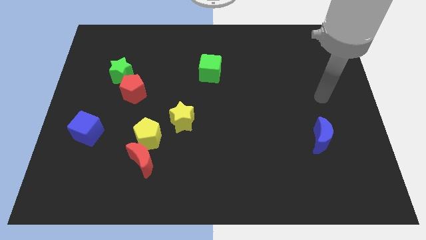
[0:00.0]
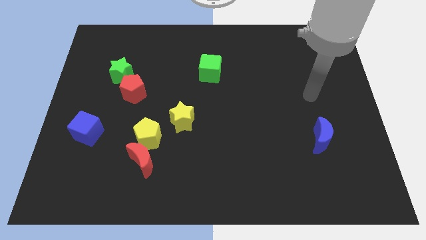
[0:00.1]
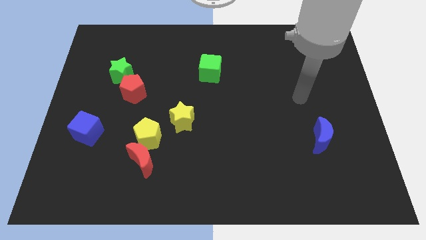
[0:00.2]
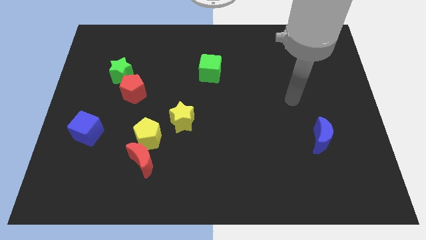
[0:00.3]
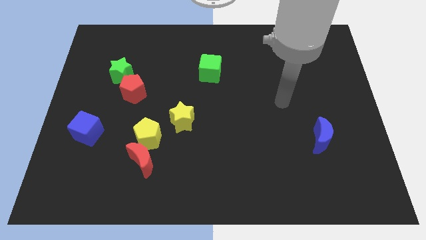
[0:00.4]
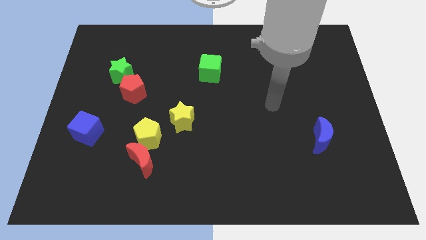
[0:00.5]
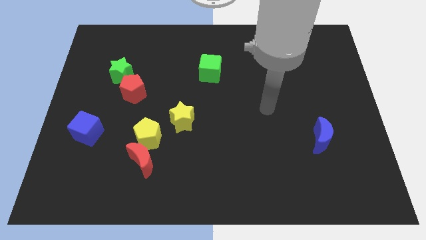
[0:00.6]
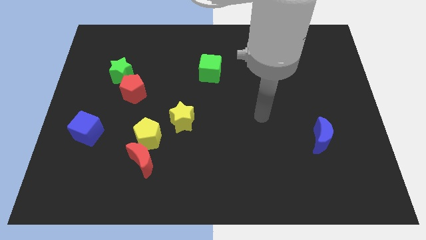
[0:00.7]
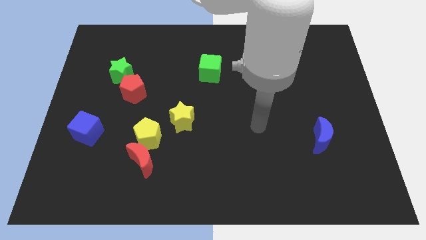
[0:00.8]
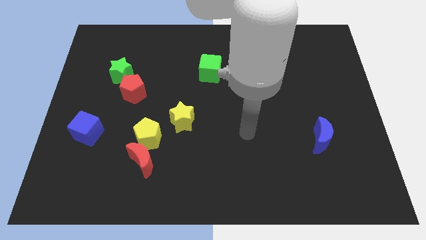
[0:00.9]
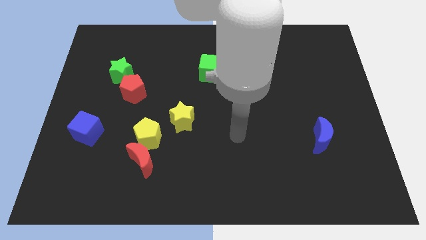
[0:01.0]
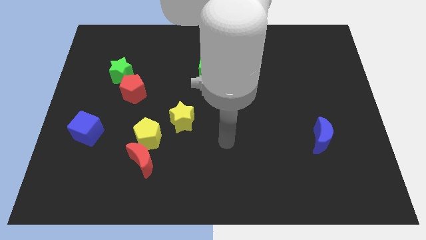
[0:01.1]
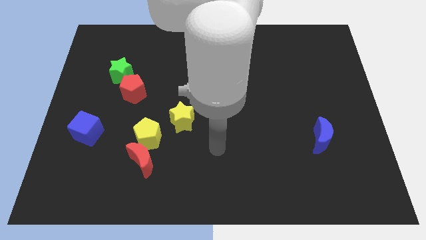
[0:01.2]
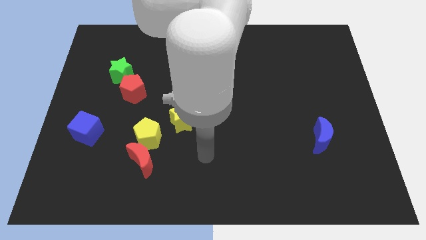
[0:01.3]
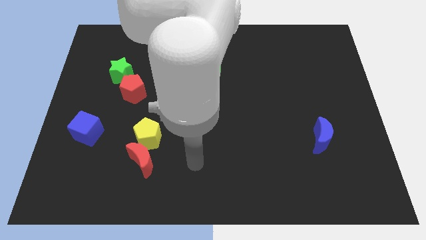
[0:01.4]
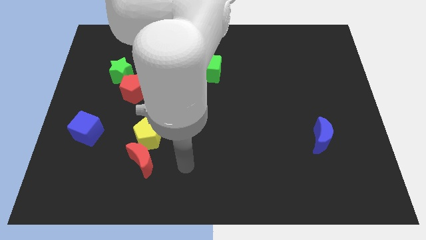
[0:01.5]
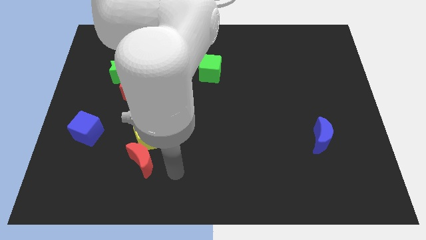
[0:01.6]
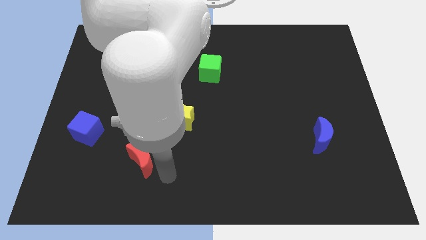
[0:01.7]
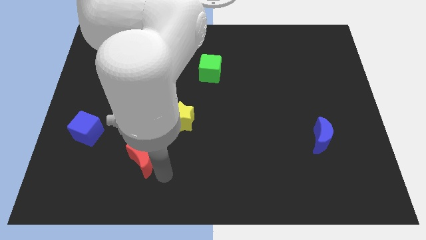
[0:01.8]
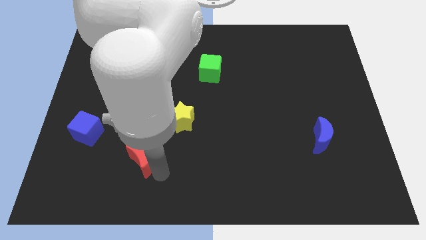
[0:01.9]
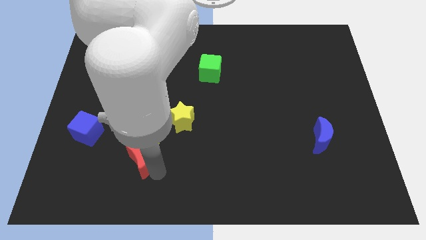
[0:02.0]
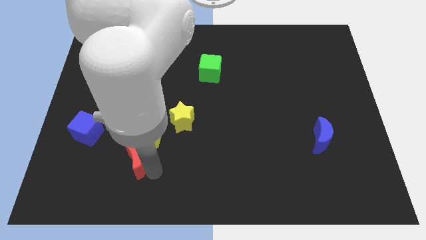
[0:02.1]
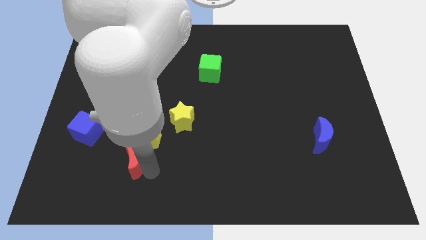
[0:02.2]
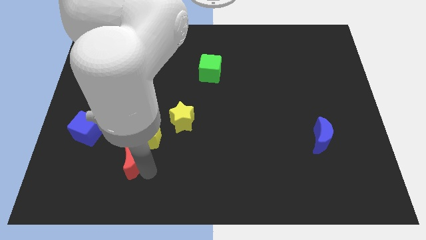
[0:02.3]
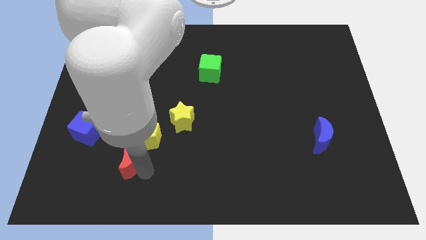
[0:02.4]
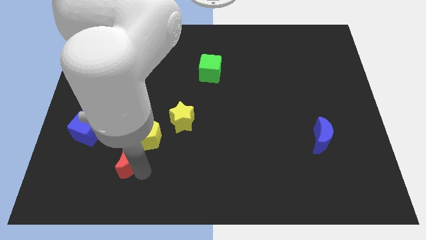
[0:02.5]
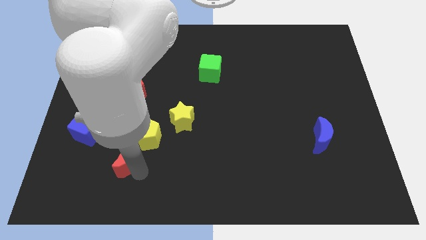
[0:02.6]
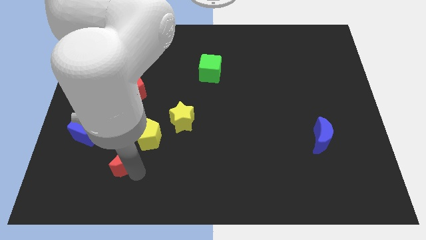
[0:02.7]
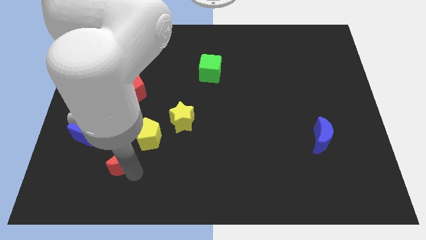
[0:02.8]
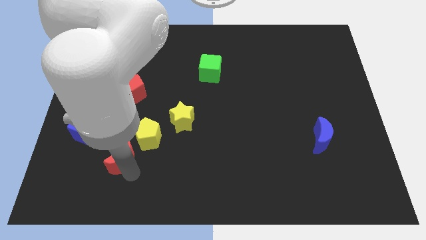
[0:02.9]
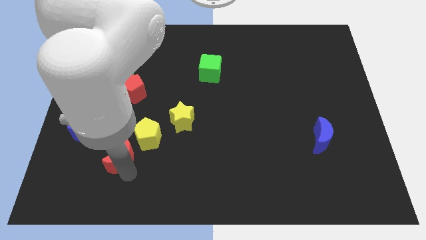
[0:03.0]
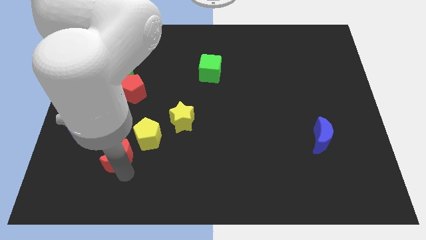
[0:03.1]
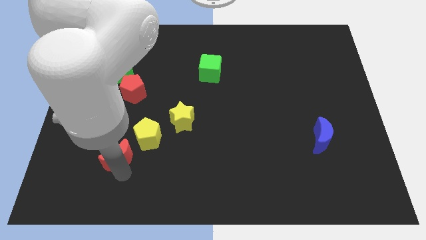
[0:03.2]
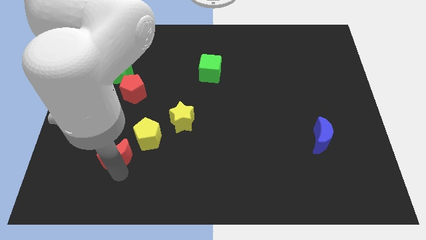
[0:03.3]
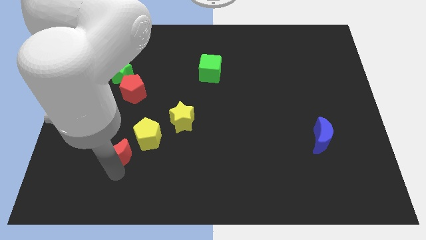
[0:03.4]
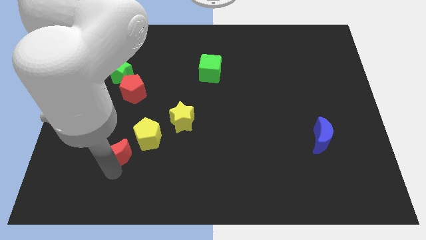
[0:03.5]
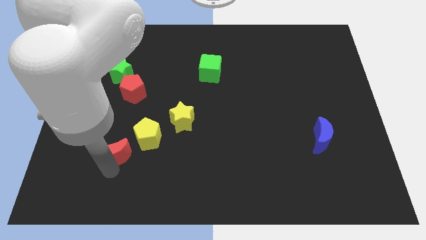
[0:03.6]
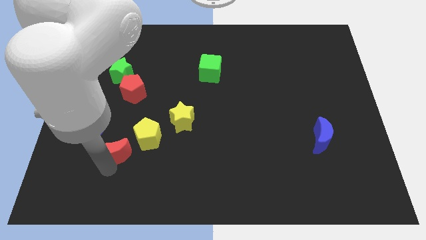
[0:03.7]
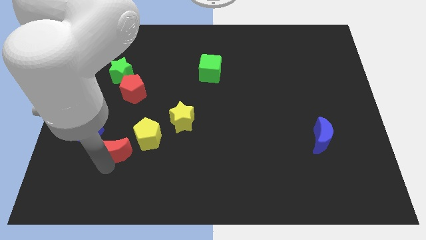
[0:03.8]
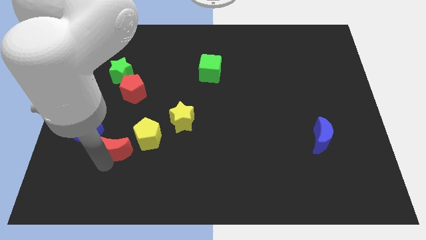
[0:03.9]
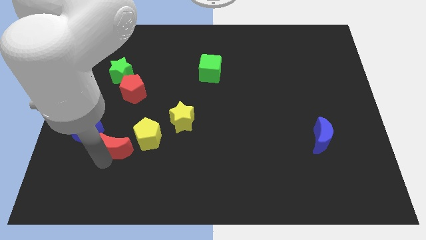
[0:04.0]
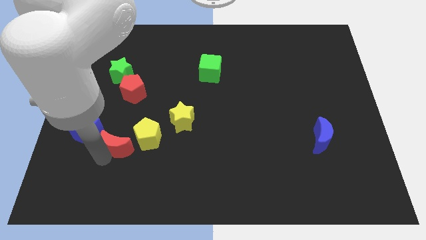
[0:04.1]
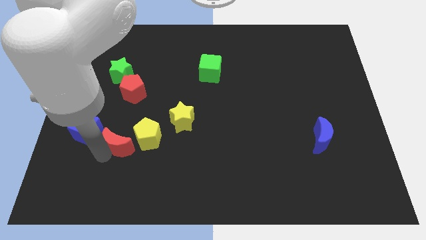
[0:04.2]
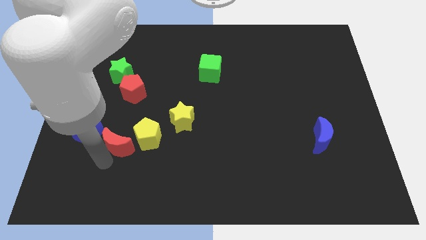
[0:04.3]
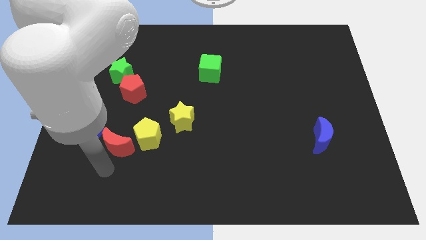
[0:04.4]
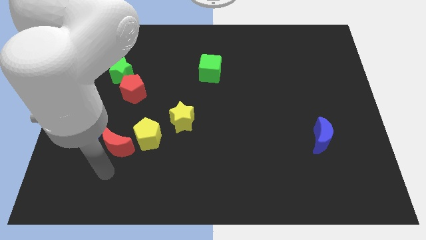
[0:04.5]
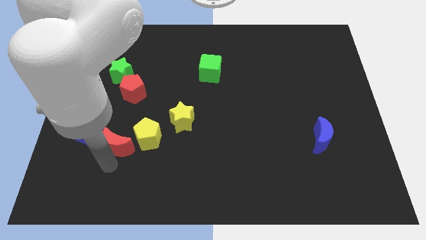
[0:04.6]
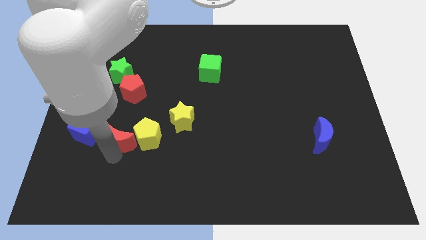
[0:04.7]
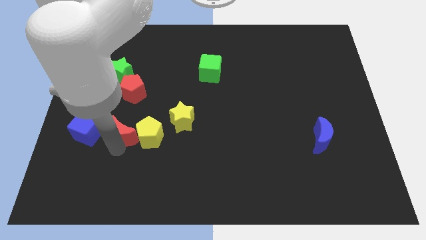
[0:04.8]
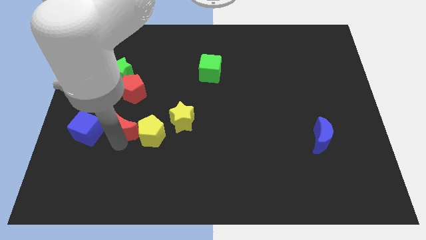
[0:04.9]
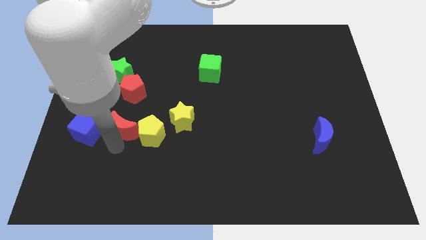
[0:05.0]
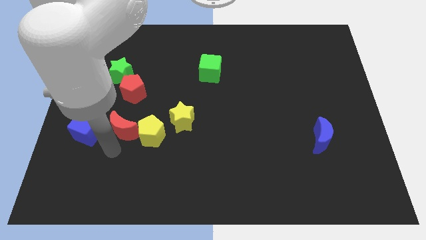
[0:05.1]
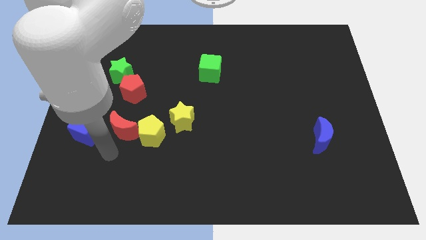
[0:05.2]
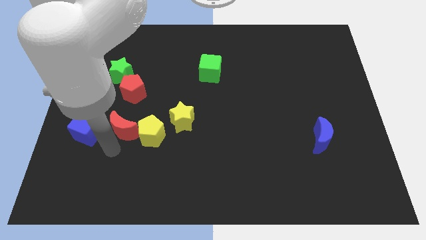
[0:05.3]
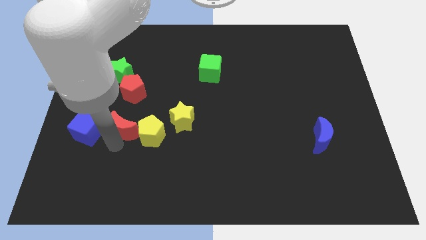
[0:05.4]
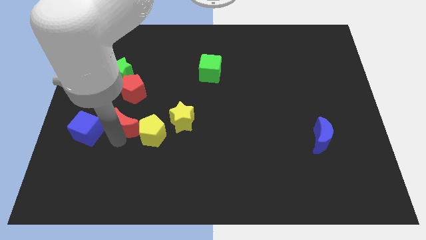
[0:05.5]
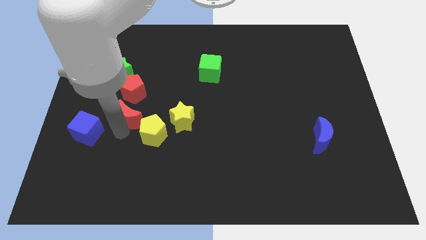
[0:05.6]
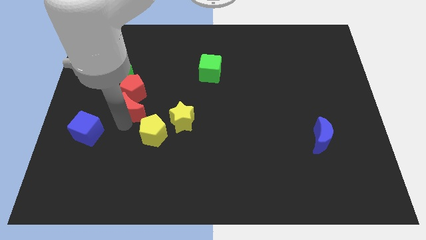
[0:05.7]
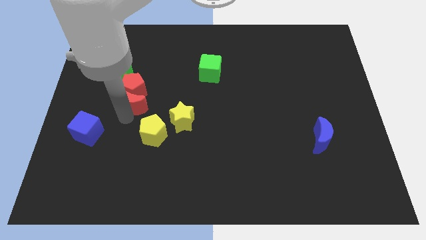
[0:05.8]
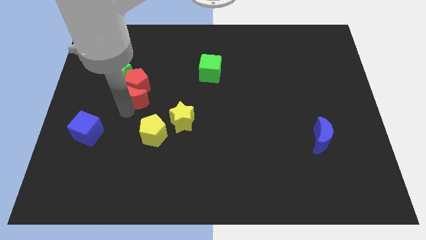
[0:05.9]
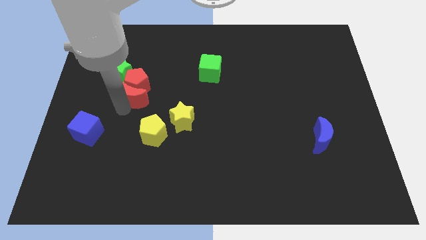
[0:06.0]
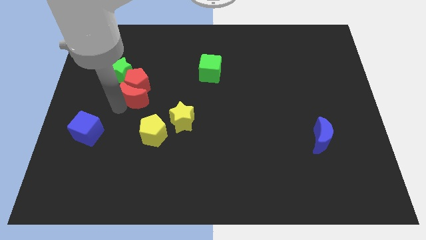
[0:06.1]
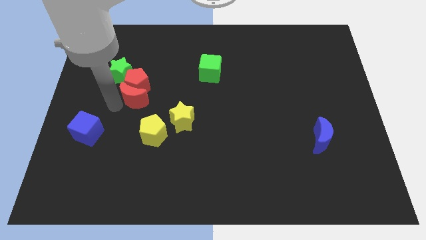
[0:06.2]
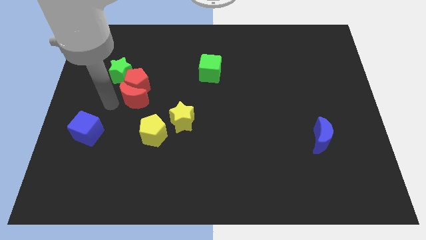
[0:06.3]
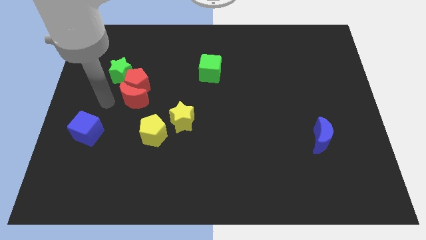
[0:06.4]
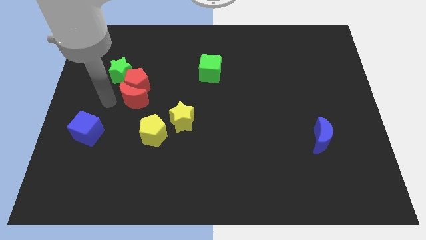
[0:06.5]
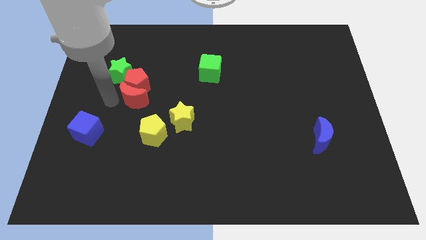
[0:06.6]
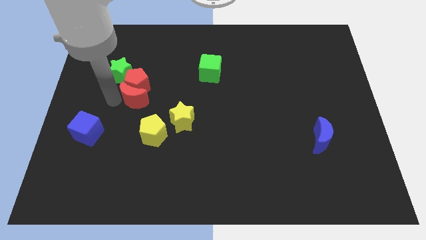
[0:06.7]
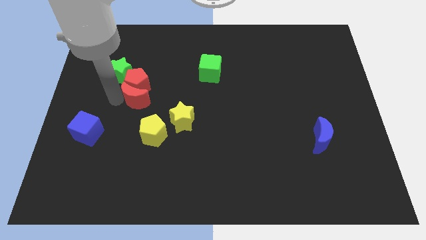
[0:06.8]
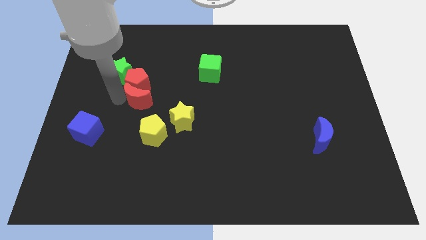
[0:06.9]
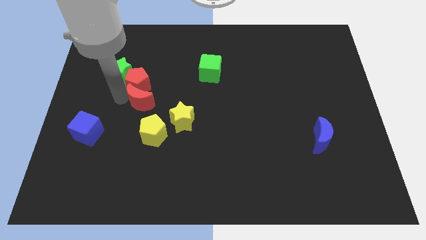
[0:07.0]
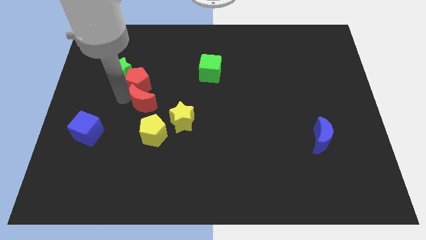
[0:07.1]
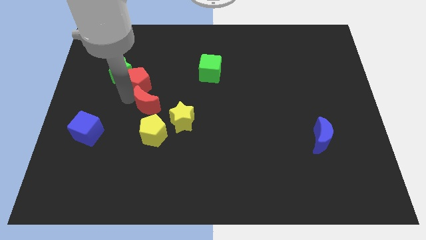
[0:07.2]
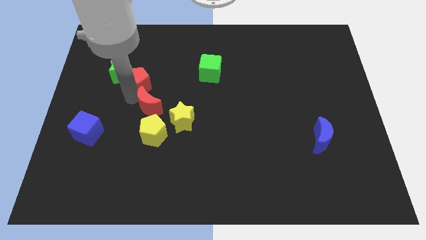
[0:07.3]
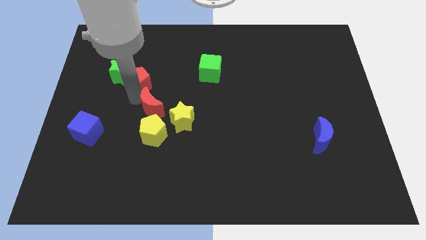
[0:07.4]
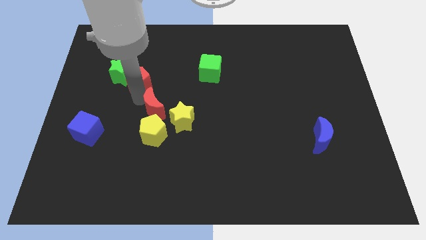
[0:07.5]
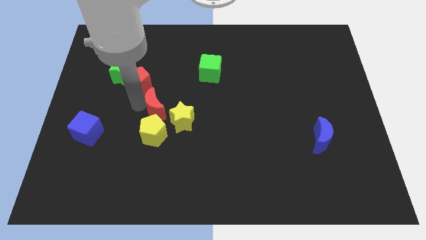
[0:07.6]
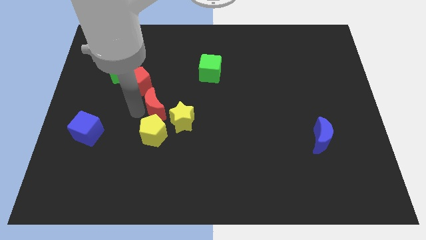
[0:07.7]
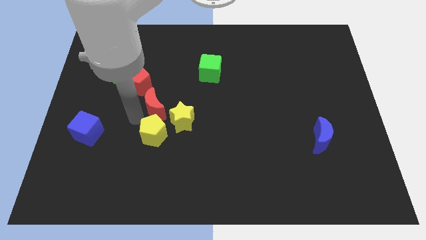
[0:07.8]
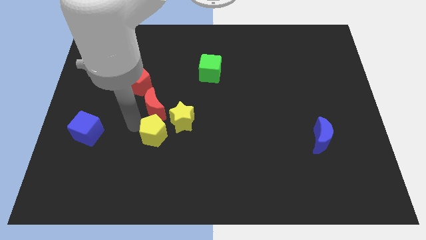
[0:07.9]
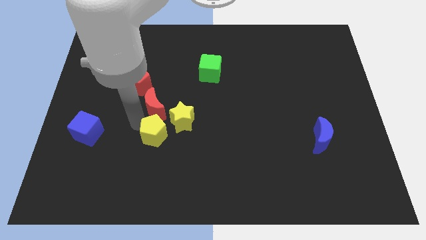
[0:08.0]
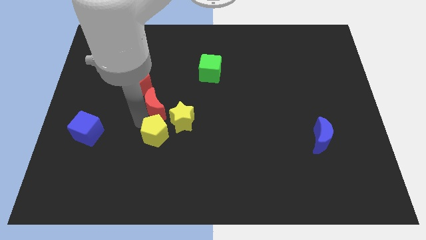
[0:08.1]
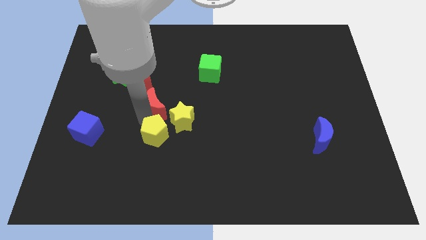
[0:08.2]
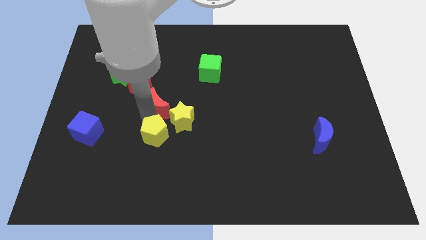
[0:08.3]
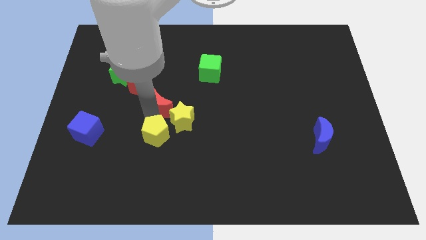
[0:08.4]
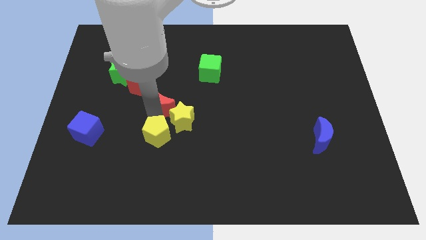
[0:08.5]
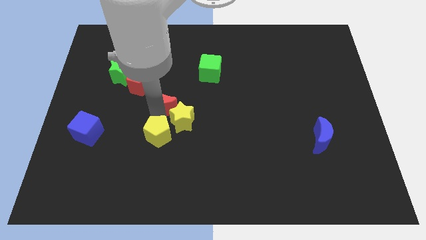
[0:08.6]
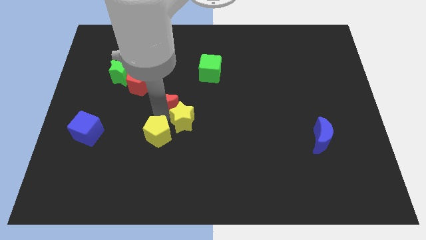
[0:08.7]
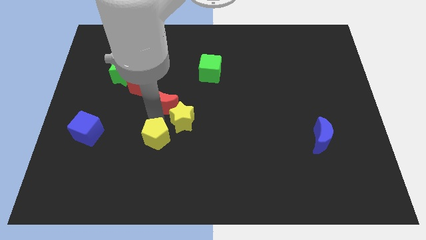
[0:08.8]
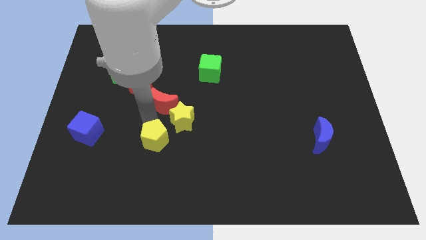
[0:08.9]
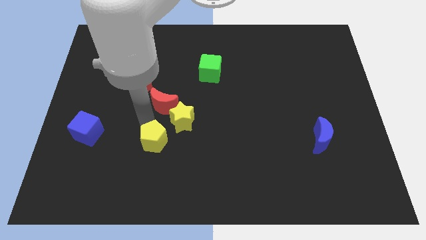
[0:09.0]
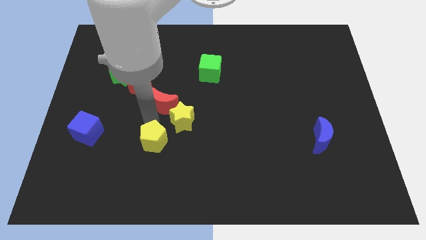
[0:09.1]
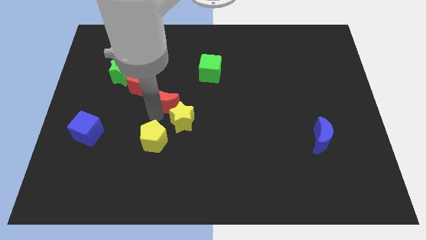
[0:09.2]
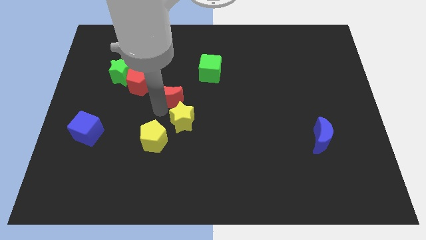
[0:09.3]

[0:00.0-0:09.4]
slide the red moon just right of the red pentagon
